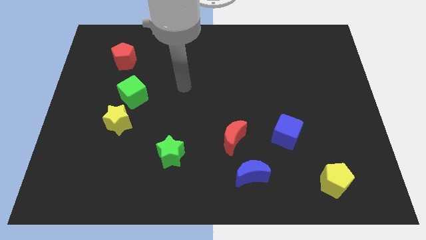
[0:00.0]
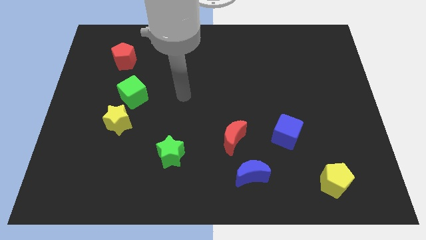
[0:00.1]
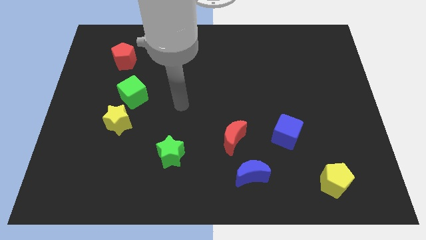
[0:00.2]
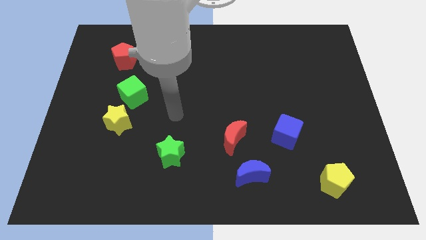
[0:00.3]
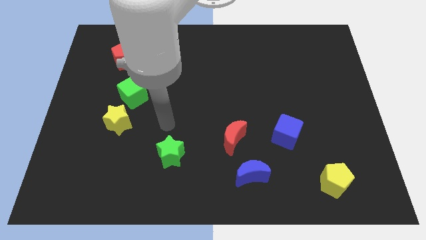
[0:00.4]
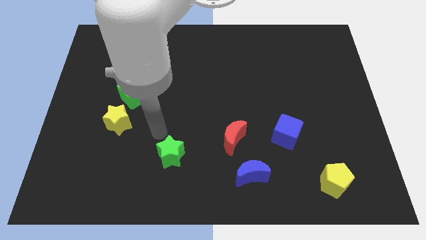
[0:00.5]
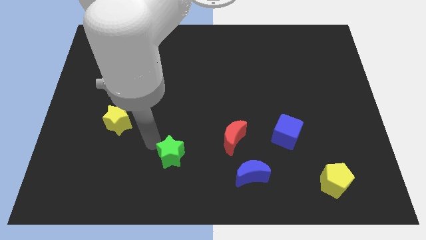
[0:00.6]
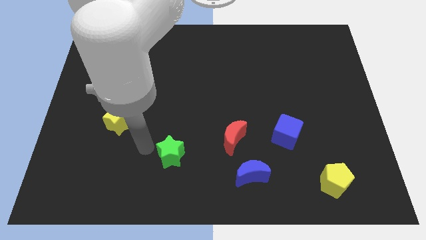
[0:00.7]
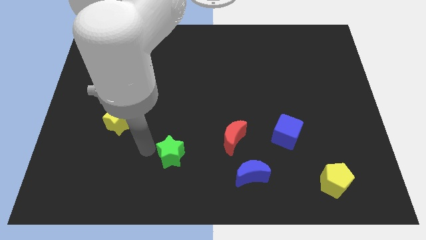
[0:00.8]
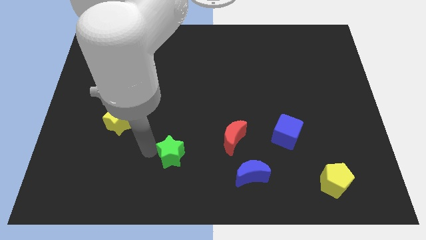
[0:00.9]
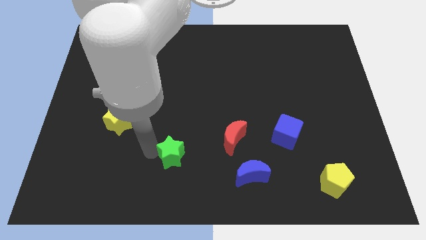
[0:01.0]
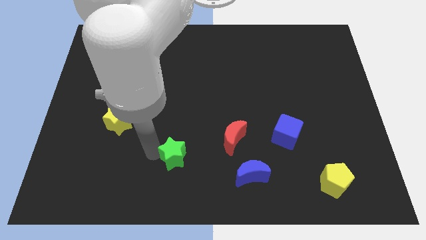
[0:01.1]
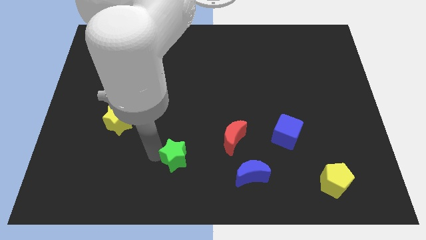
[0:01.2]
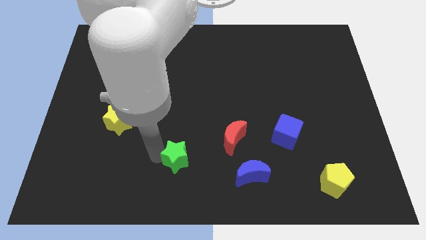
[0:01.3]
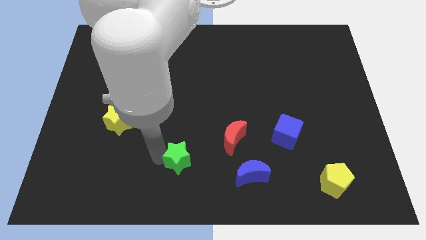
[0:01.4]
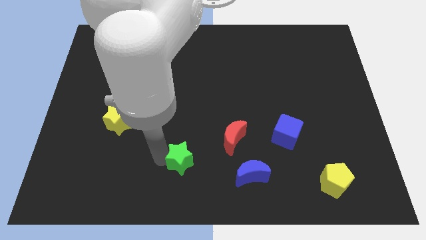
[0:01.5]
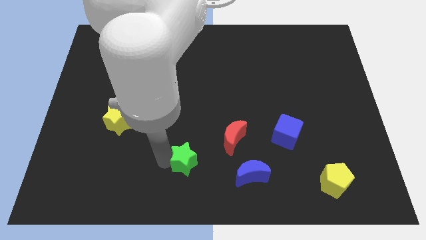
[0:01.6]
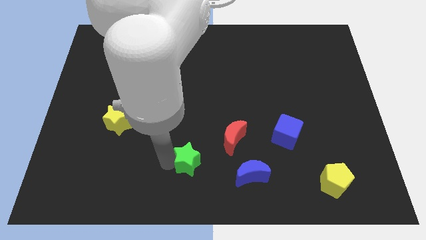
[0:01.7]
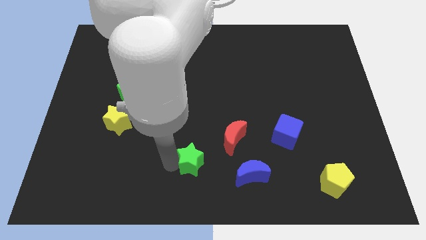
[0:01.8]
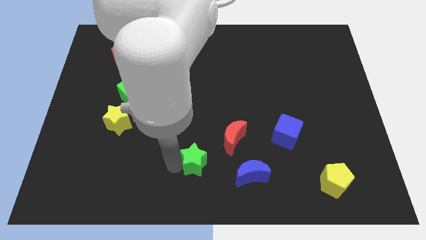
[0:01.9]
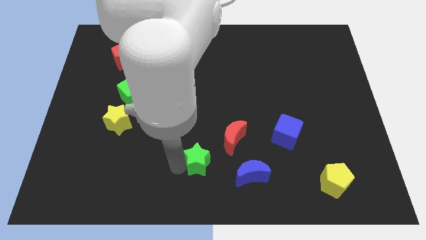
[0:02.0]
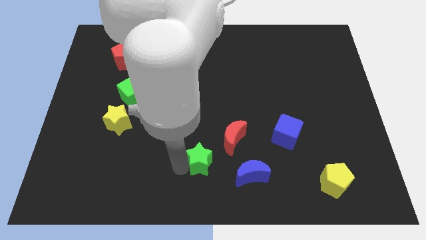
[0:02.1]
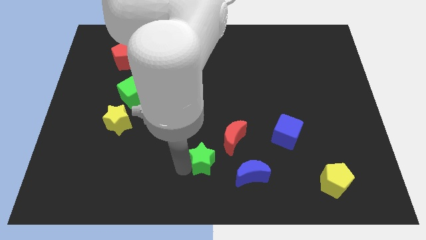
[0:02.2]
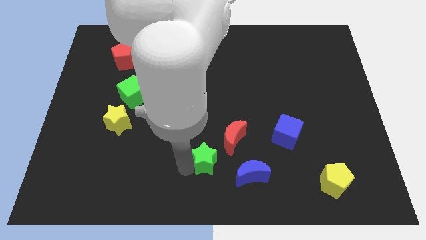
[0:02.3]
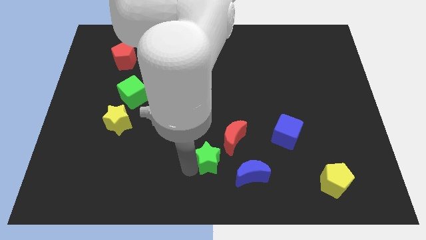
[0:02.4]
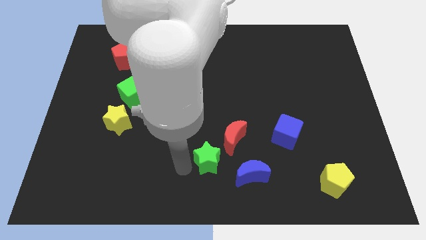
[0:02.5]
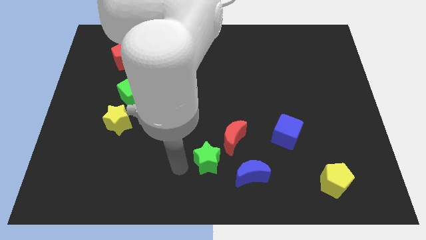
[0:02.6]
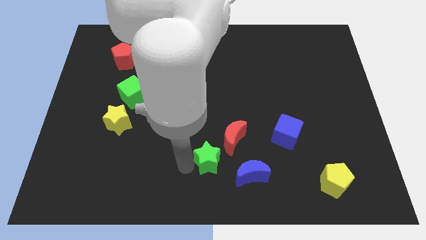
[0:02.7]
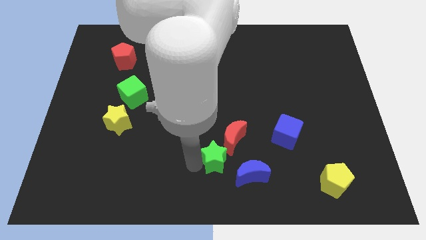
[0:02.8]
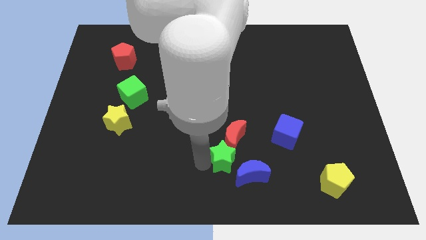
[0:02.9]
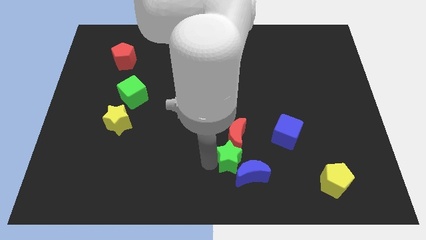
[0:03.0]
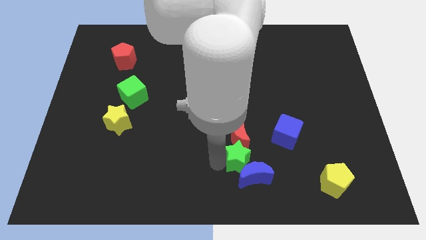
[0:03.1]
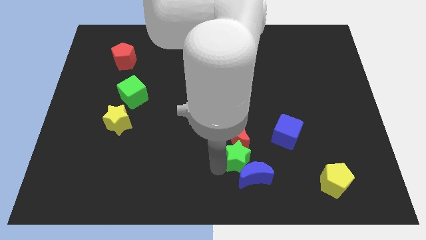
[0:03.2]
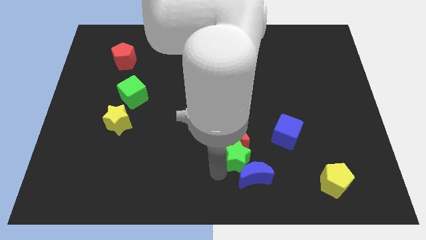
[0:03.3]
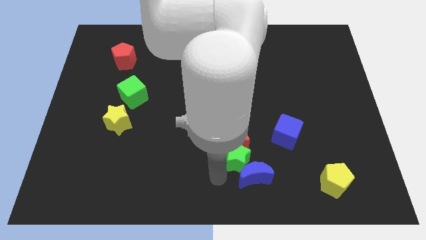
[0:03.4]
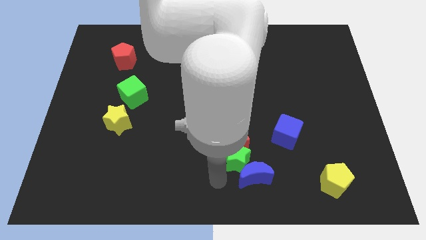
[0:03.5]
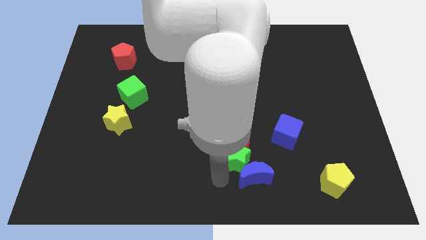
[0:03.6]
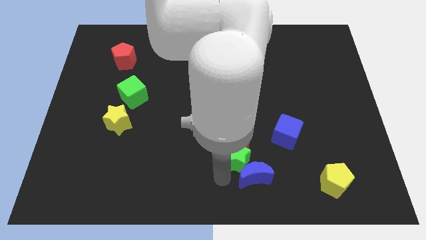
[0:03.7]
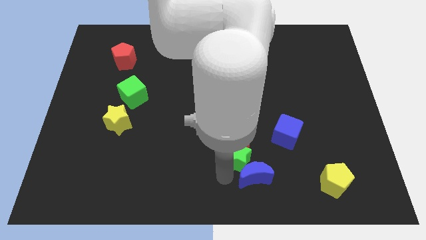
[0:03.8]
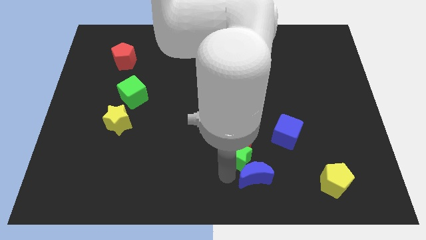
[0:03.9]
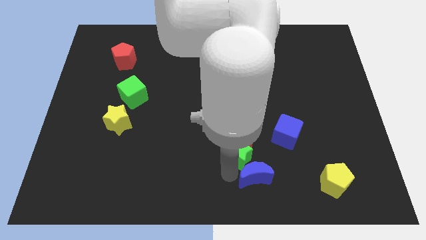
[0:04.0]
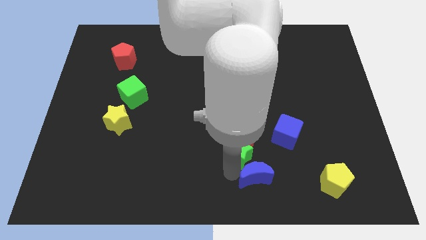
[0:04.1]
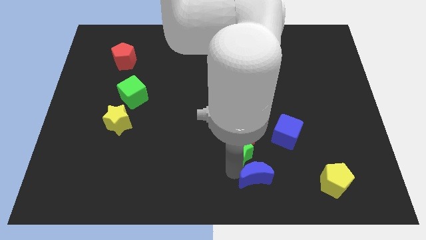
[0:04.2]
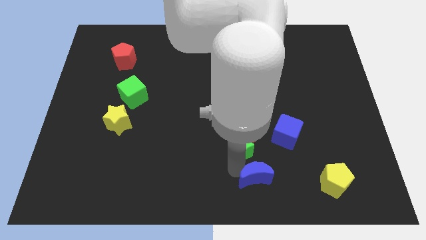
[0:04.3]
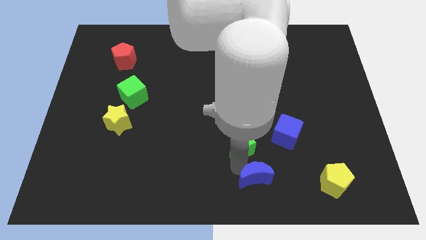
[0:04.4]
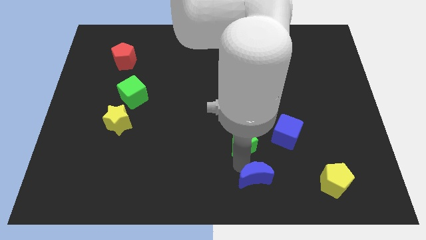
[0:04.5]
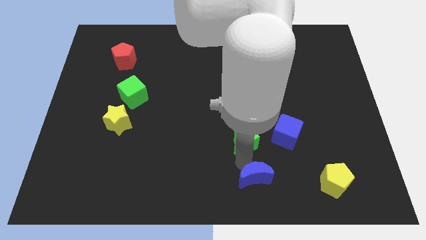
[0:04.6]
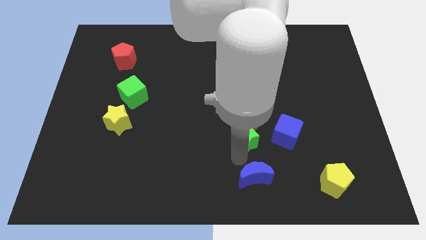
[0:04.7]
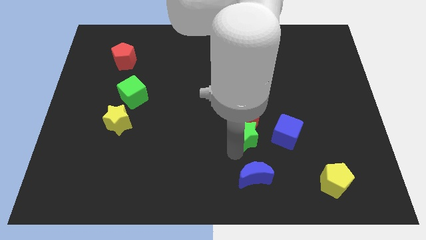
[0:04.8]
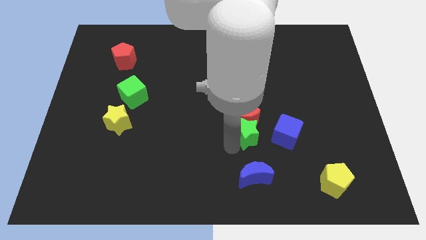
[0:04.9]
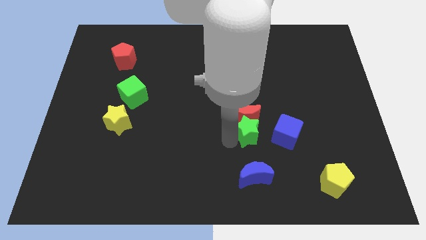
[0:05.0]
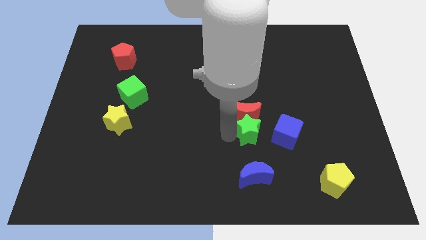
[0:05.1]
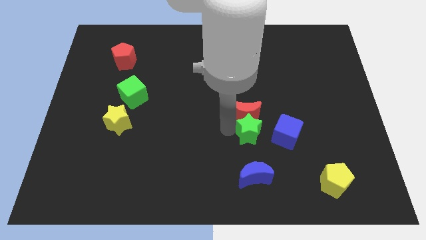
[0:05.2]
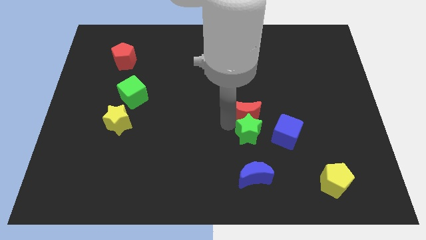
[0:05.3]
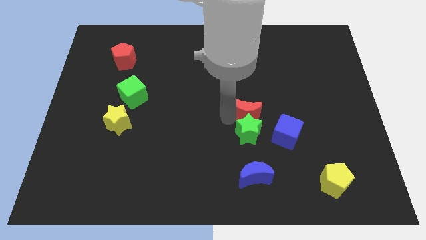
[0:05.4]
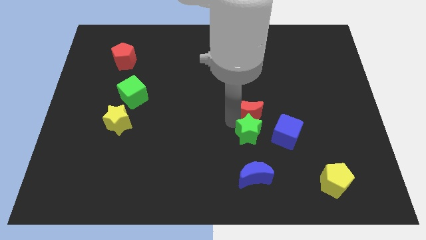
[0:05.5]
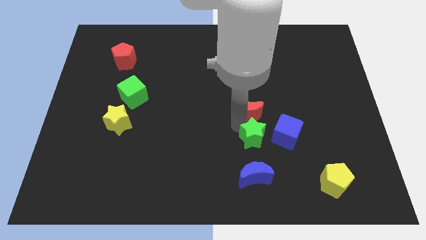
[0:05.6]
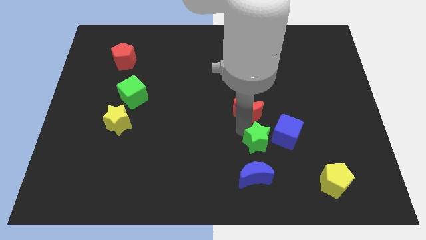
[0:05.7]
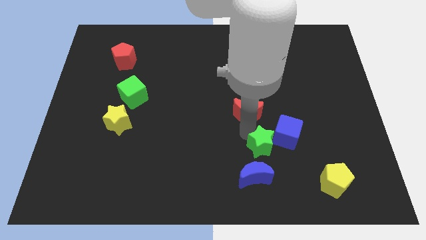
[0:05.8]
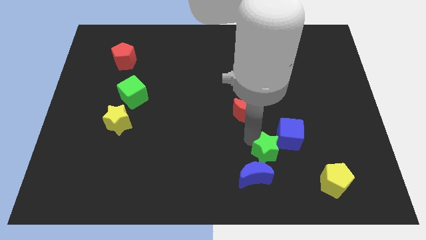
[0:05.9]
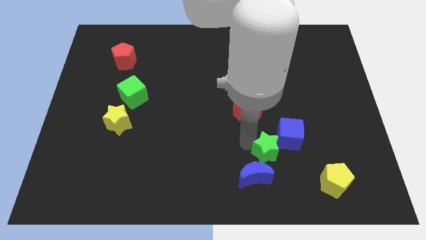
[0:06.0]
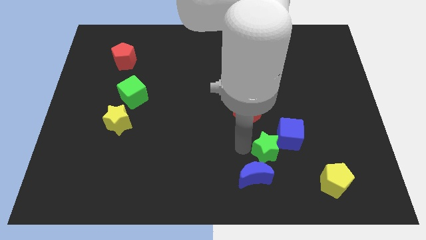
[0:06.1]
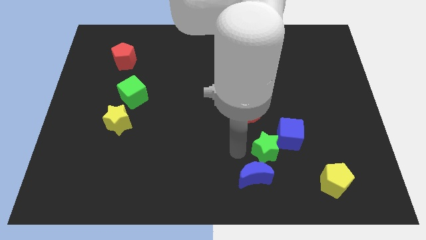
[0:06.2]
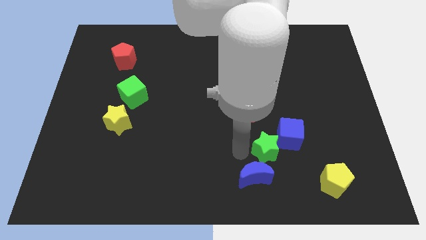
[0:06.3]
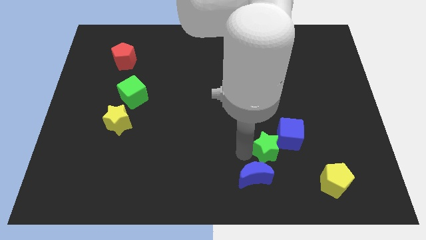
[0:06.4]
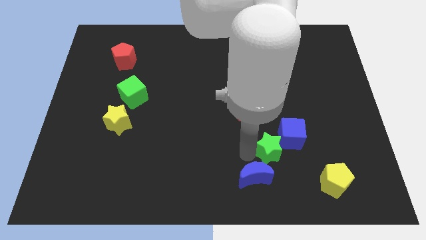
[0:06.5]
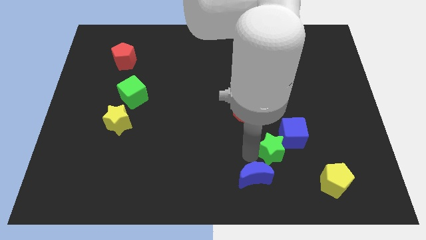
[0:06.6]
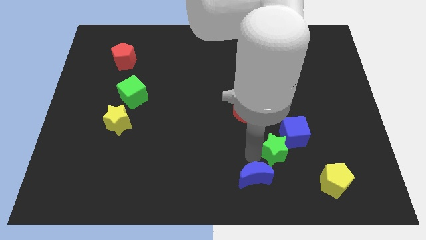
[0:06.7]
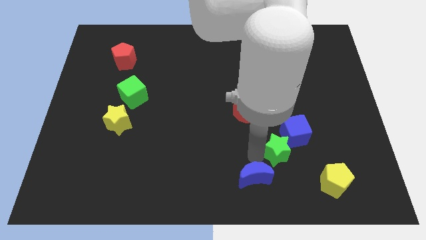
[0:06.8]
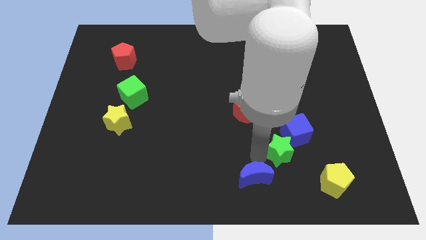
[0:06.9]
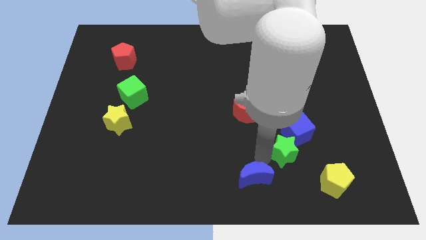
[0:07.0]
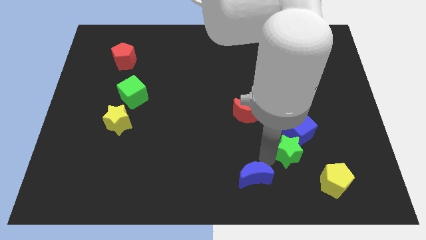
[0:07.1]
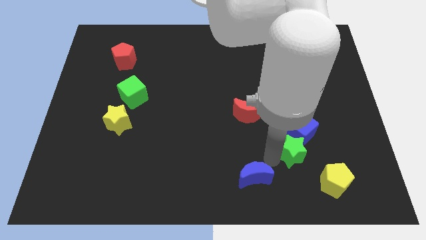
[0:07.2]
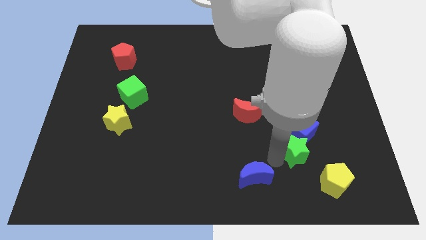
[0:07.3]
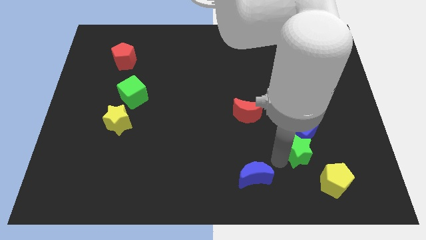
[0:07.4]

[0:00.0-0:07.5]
put the green star to the bottom right of the blue cube
